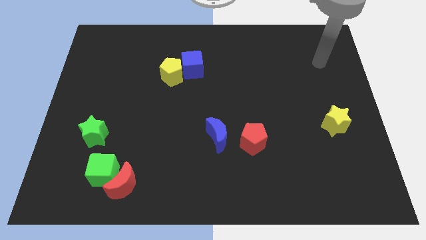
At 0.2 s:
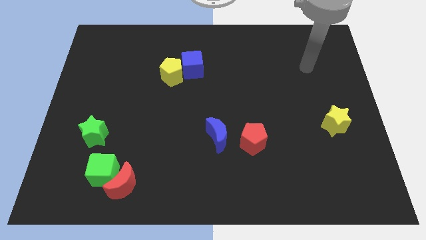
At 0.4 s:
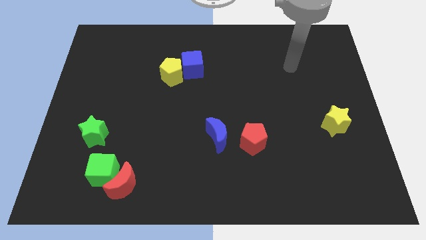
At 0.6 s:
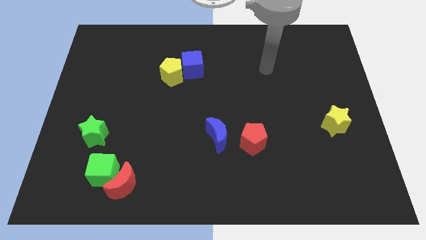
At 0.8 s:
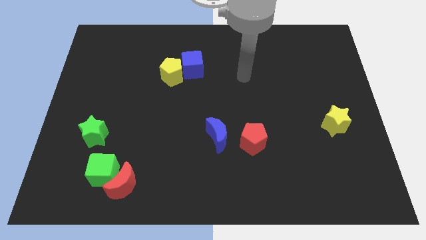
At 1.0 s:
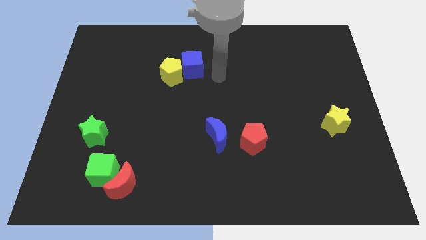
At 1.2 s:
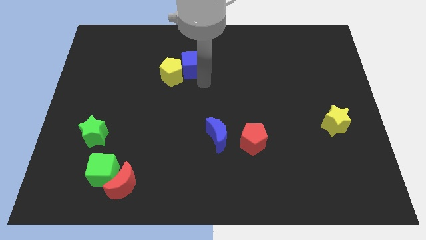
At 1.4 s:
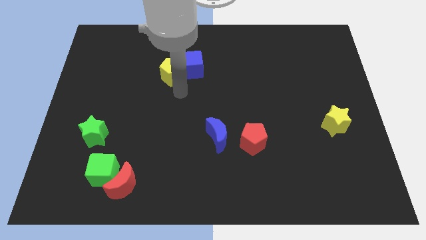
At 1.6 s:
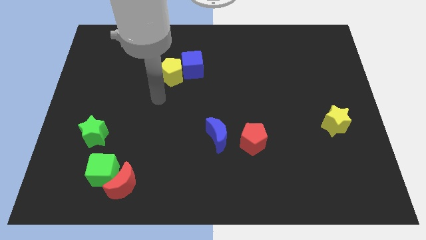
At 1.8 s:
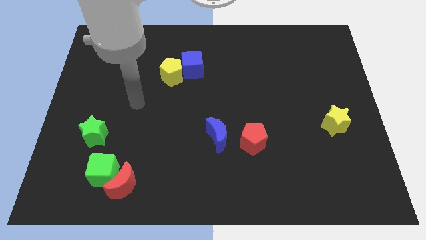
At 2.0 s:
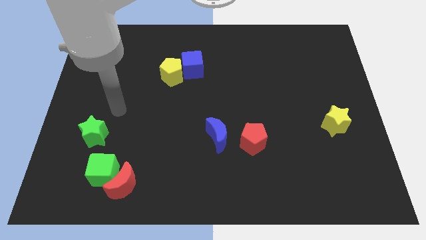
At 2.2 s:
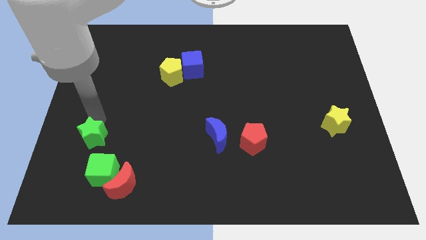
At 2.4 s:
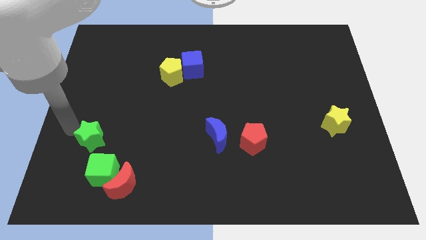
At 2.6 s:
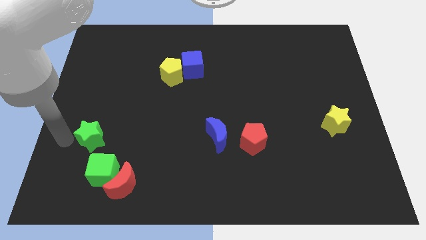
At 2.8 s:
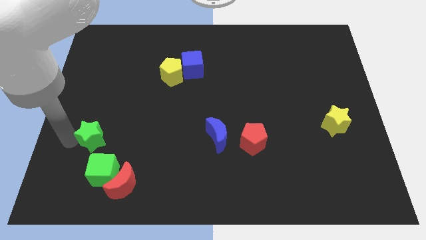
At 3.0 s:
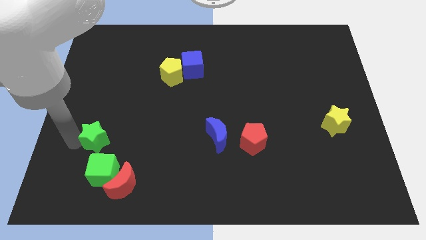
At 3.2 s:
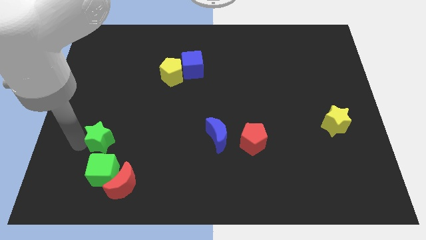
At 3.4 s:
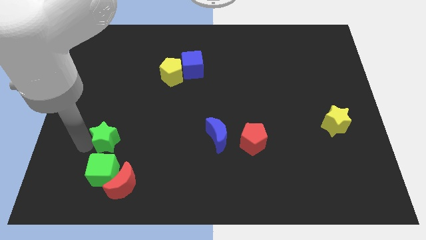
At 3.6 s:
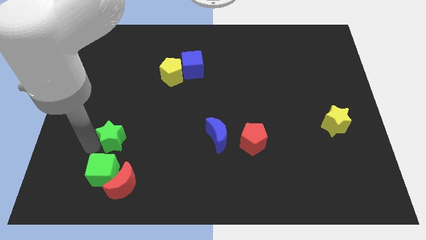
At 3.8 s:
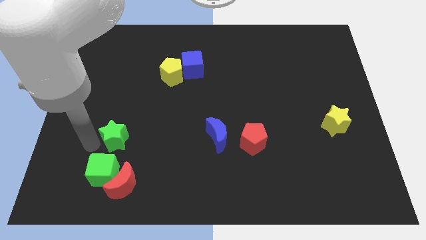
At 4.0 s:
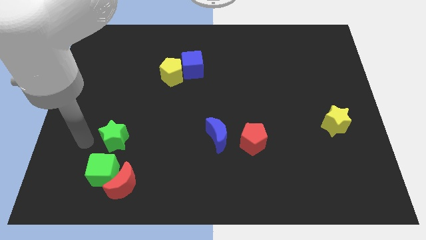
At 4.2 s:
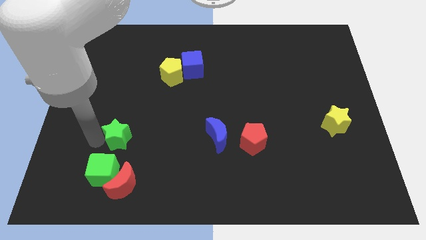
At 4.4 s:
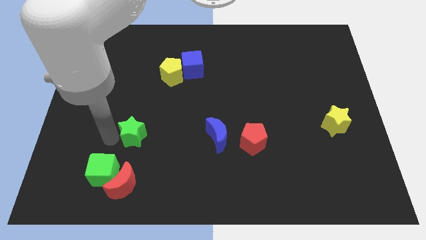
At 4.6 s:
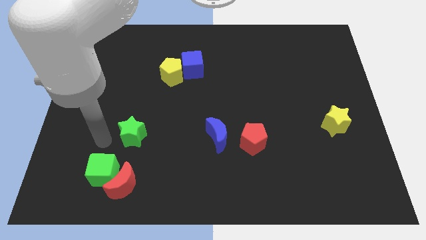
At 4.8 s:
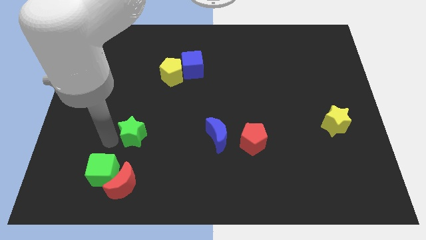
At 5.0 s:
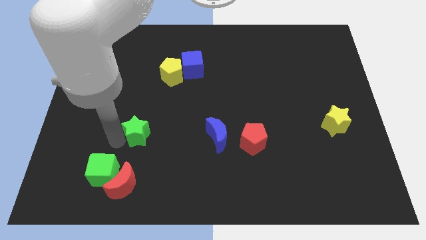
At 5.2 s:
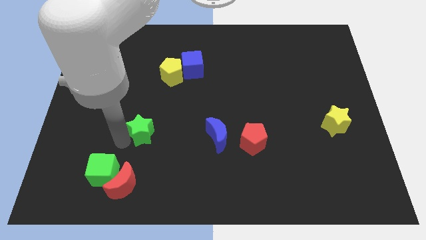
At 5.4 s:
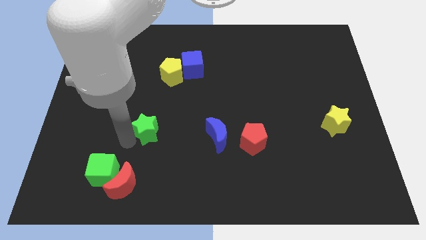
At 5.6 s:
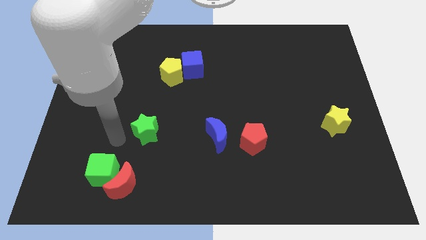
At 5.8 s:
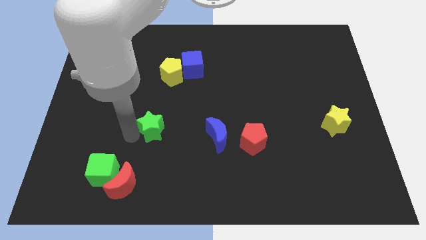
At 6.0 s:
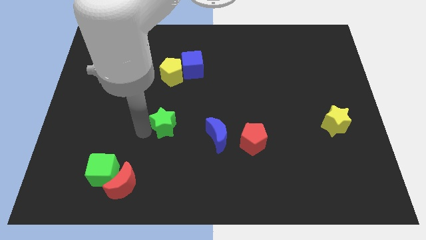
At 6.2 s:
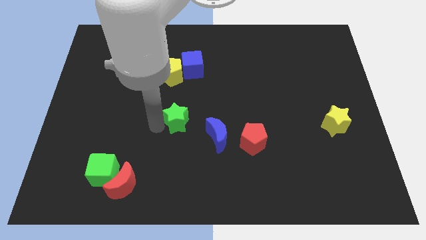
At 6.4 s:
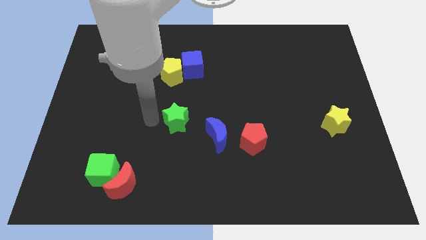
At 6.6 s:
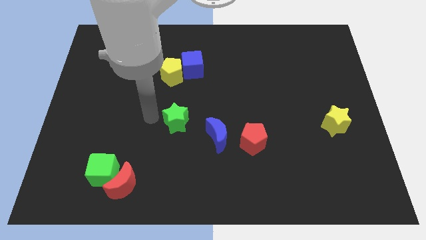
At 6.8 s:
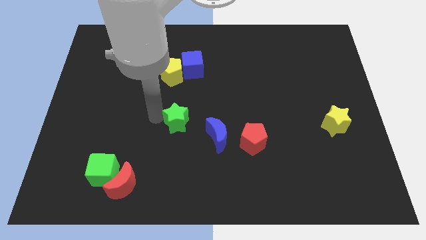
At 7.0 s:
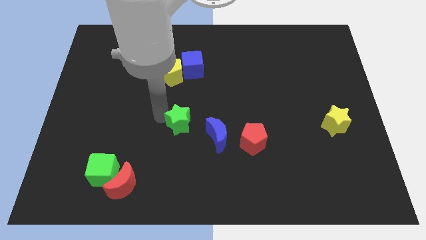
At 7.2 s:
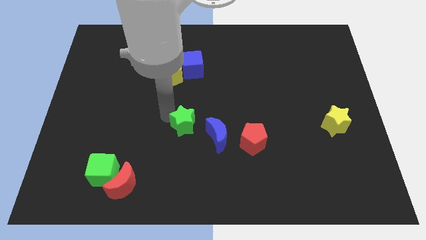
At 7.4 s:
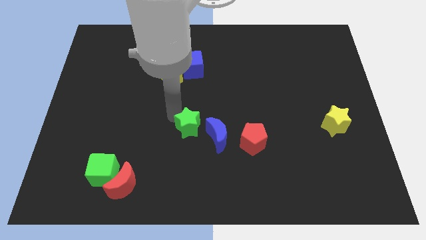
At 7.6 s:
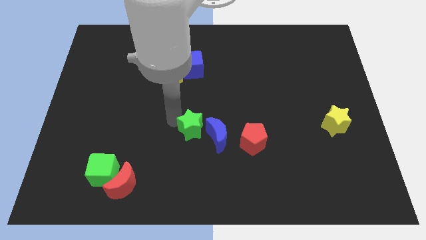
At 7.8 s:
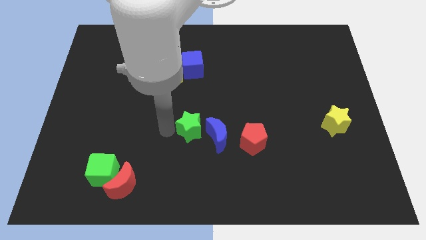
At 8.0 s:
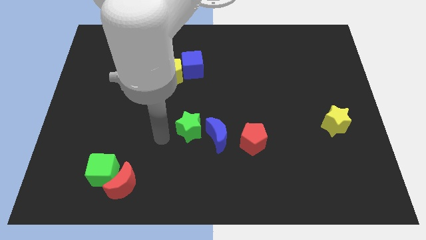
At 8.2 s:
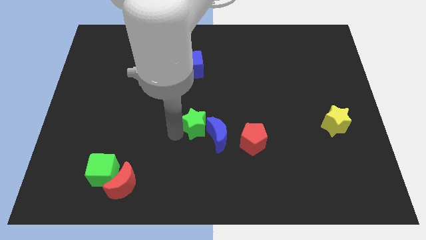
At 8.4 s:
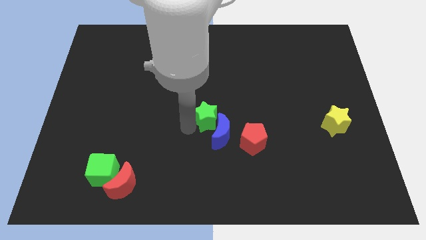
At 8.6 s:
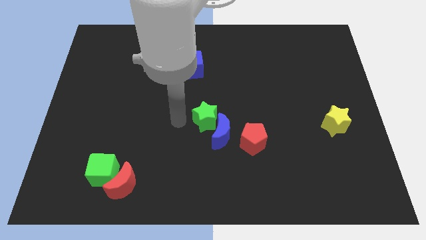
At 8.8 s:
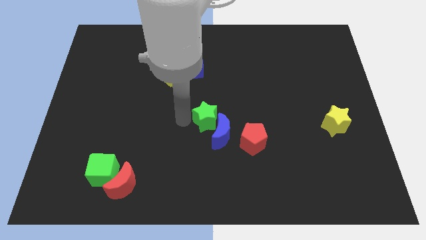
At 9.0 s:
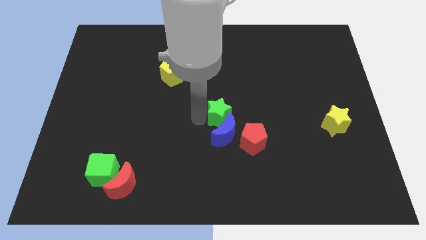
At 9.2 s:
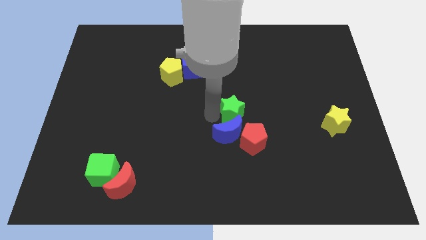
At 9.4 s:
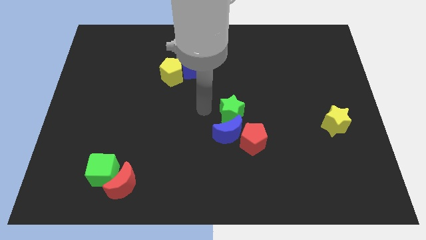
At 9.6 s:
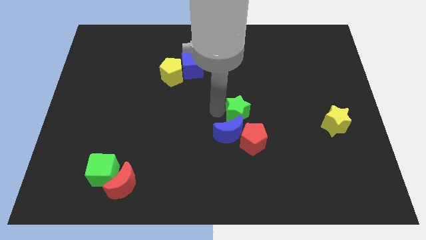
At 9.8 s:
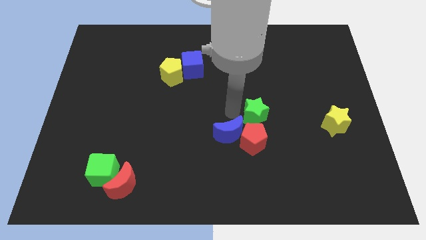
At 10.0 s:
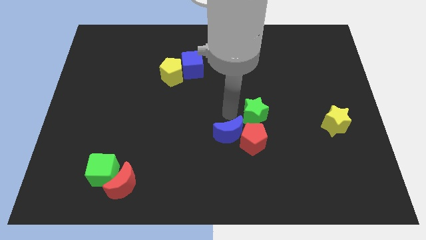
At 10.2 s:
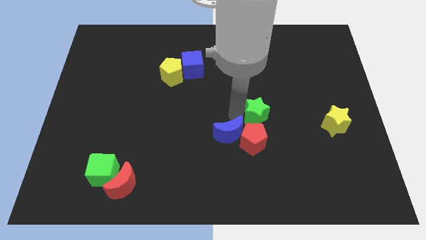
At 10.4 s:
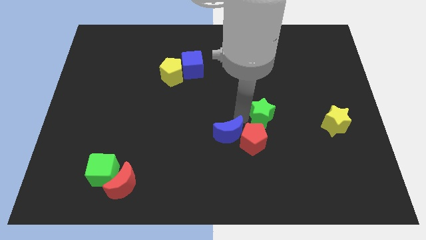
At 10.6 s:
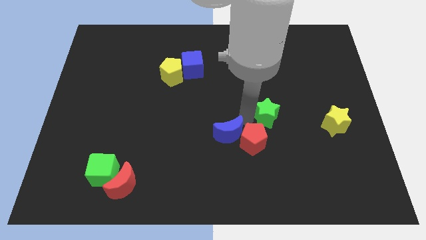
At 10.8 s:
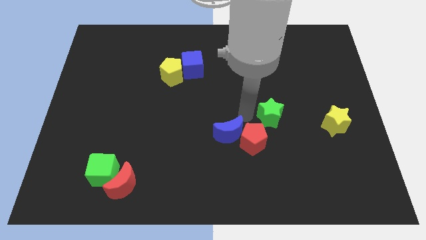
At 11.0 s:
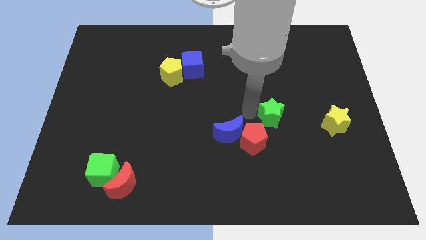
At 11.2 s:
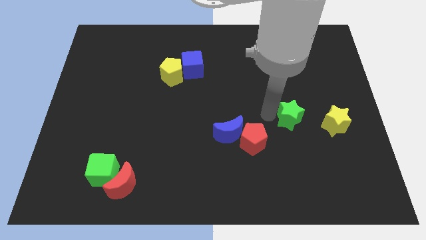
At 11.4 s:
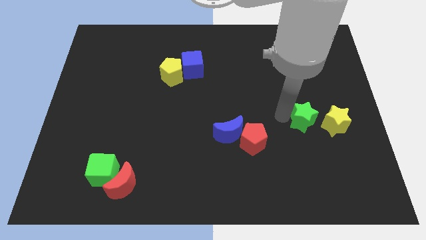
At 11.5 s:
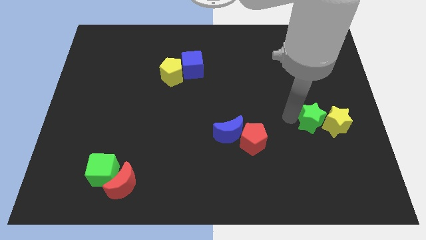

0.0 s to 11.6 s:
slide the green star towards the yellow star
